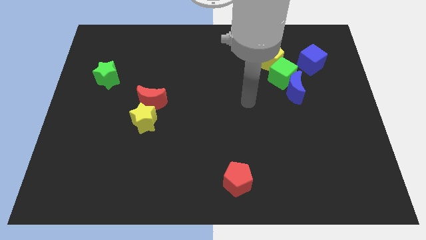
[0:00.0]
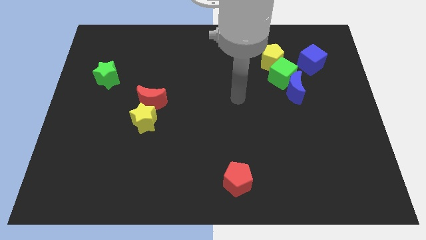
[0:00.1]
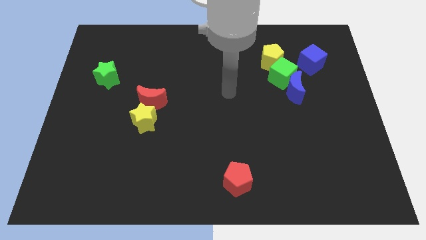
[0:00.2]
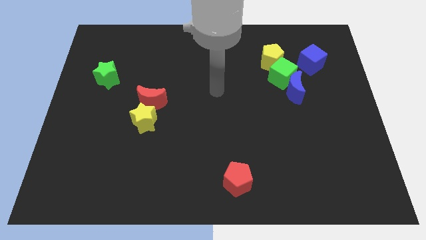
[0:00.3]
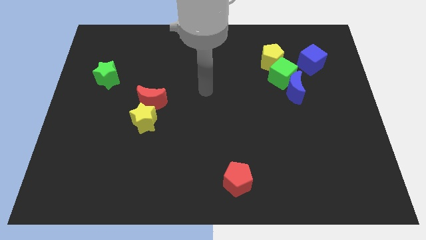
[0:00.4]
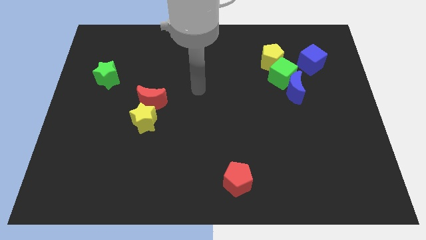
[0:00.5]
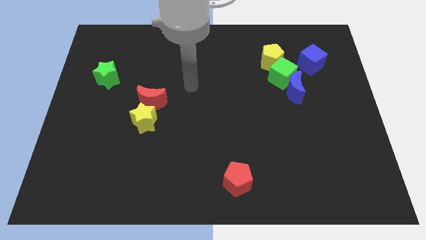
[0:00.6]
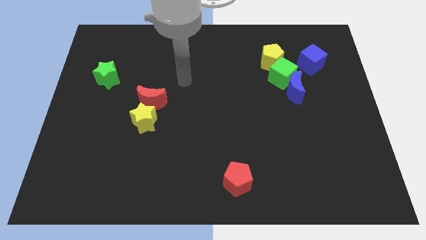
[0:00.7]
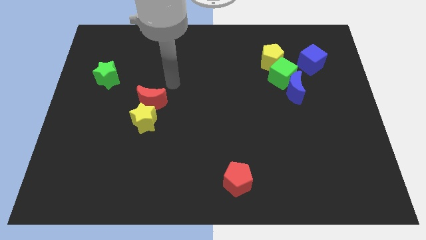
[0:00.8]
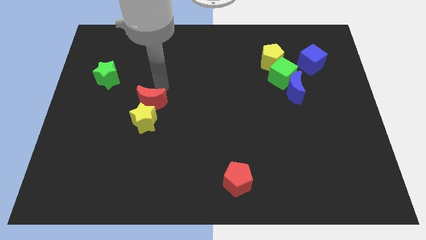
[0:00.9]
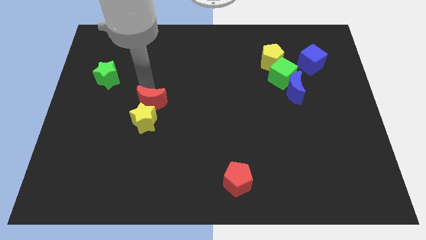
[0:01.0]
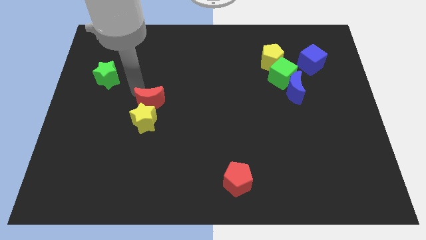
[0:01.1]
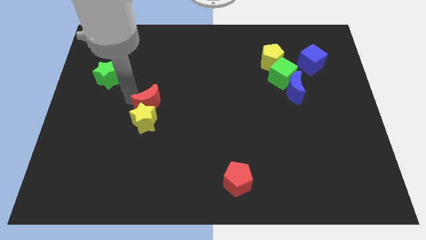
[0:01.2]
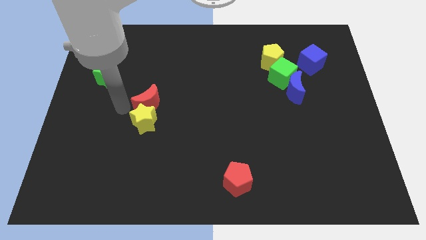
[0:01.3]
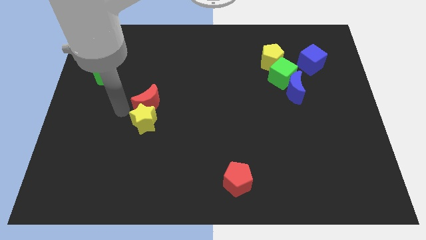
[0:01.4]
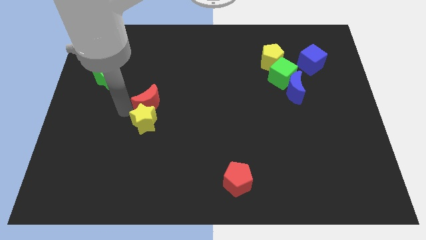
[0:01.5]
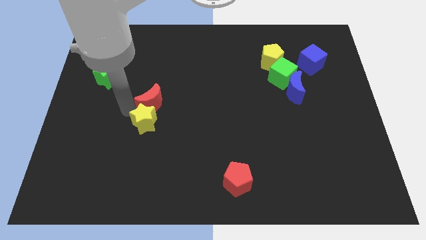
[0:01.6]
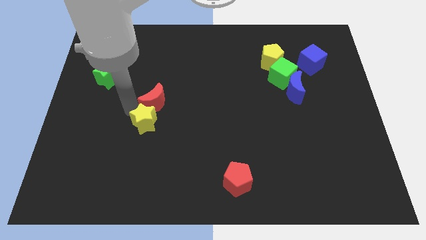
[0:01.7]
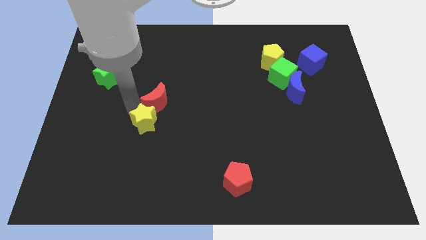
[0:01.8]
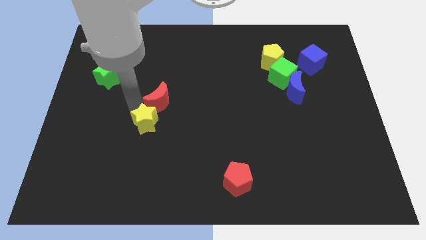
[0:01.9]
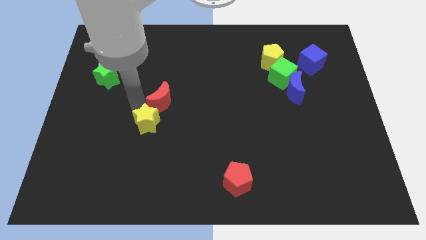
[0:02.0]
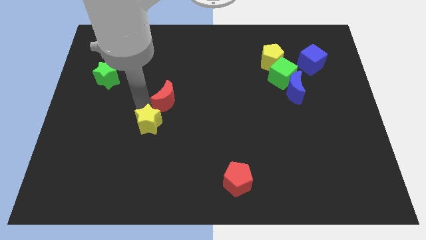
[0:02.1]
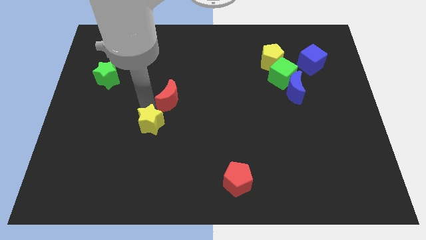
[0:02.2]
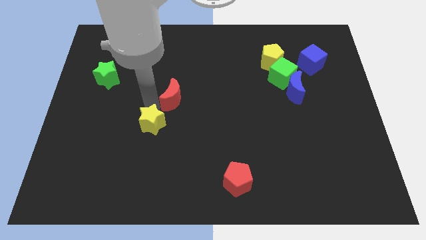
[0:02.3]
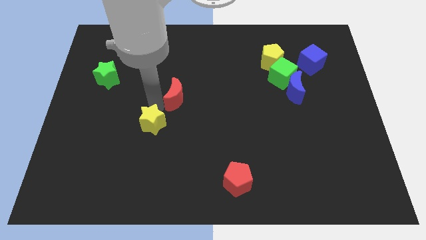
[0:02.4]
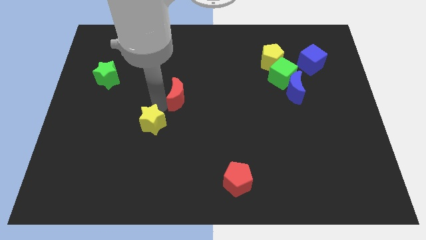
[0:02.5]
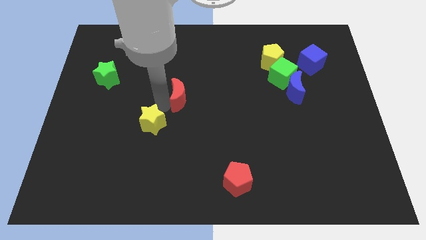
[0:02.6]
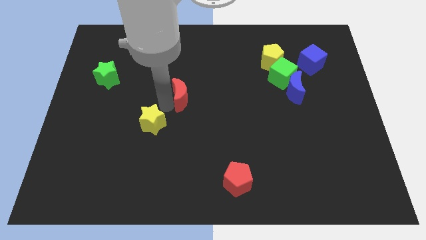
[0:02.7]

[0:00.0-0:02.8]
push the red moon right a bit

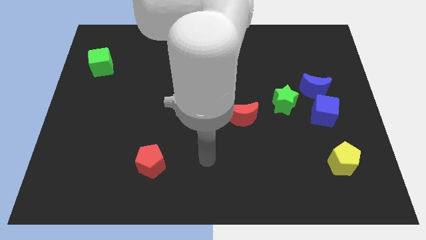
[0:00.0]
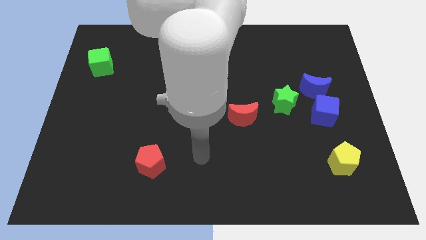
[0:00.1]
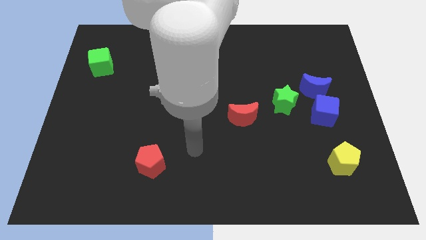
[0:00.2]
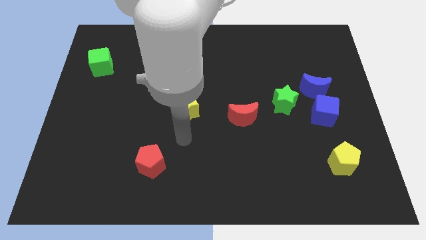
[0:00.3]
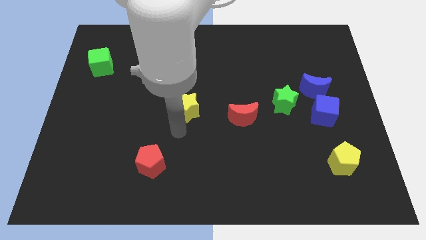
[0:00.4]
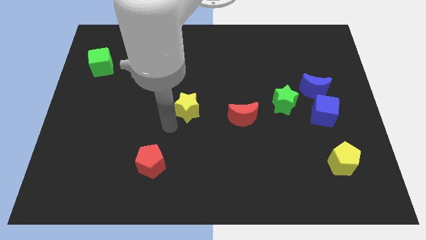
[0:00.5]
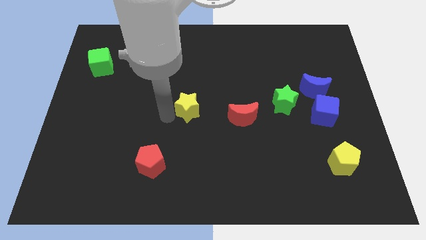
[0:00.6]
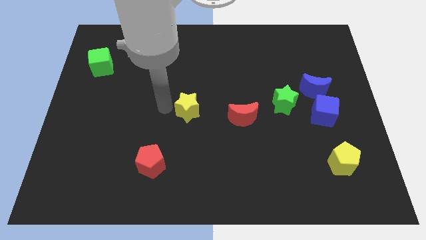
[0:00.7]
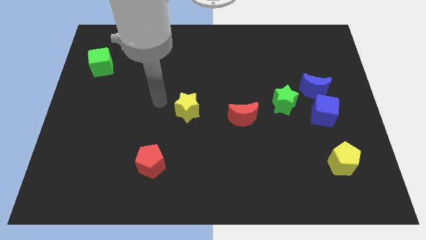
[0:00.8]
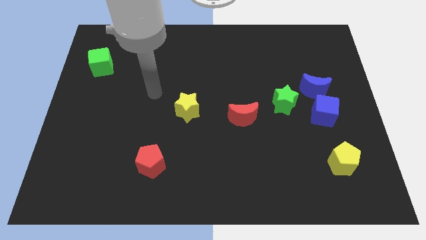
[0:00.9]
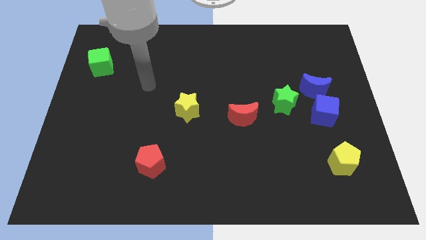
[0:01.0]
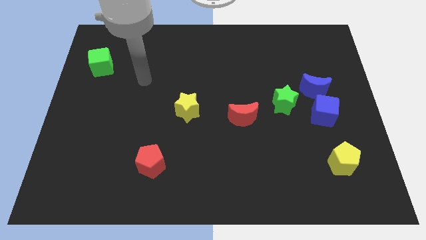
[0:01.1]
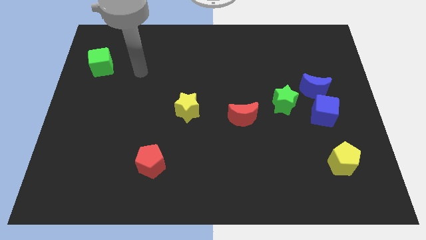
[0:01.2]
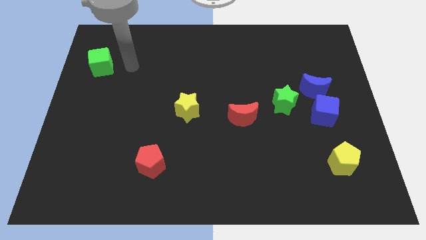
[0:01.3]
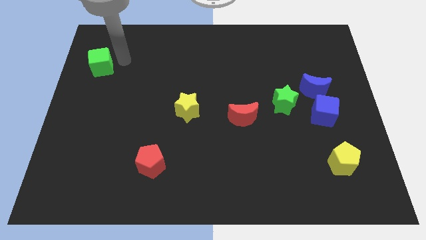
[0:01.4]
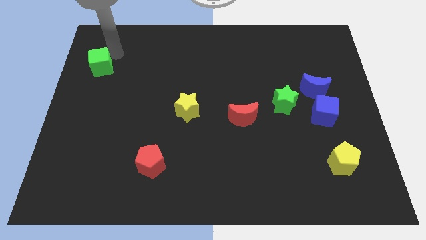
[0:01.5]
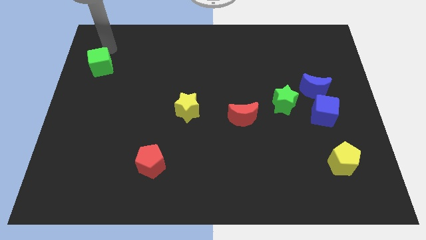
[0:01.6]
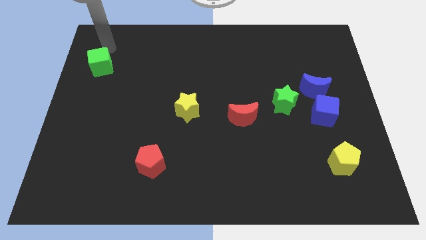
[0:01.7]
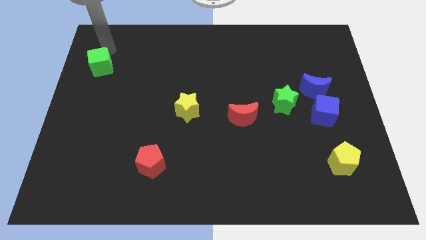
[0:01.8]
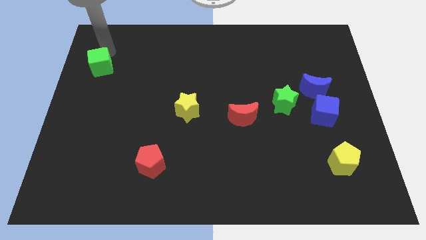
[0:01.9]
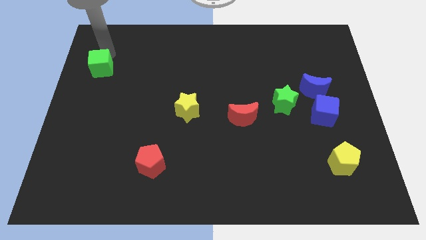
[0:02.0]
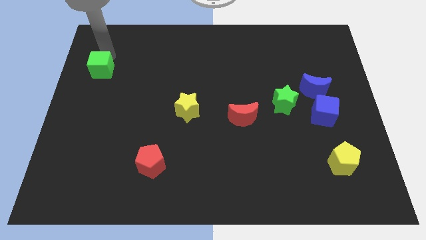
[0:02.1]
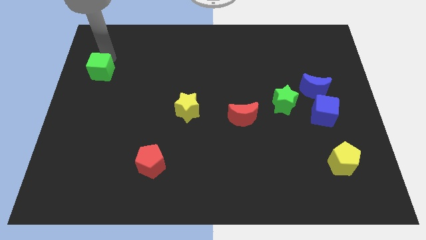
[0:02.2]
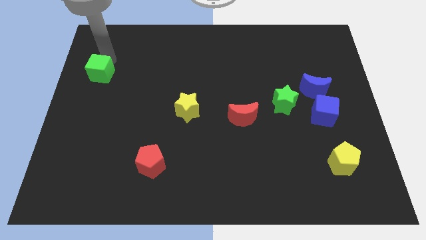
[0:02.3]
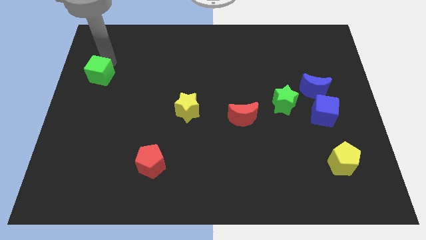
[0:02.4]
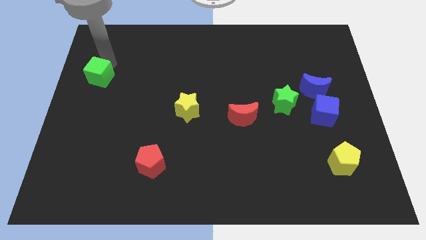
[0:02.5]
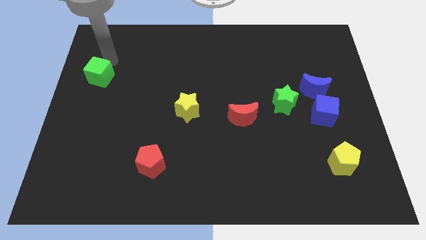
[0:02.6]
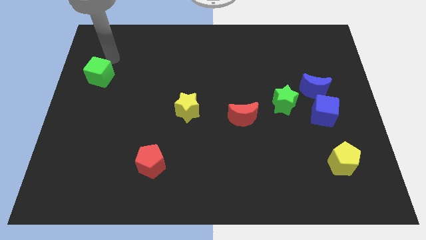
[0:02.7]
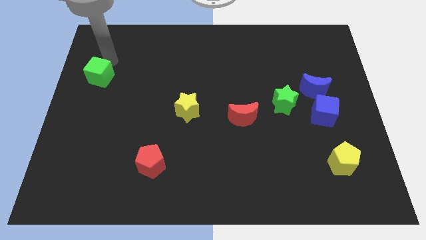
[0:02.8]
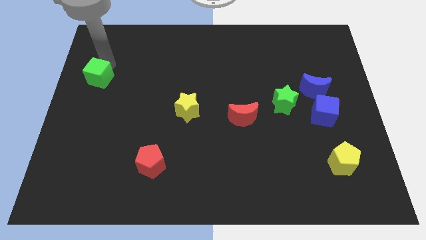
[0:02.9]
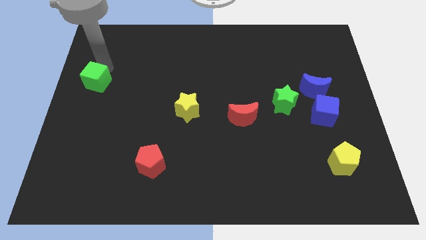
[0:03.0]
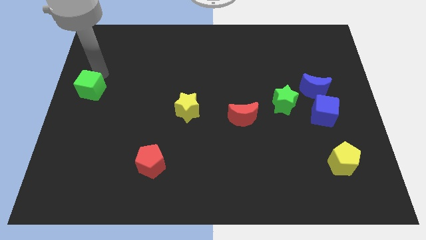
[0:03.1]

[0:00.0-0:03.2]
slide the green cube a little downwards

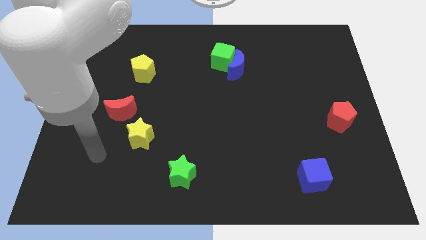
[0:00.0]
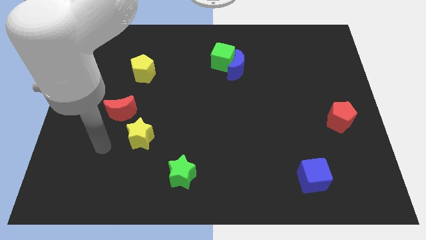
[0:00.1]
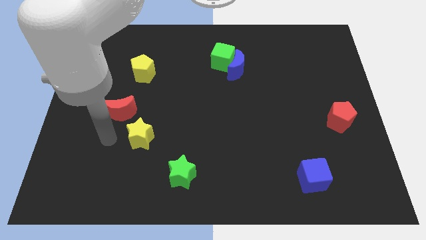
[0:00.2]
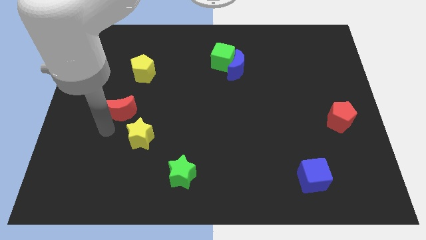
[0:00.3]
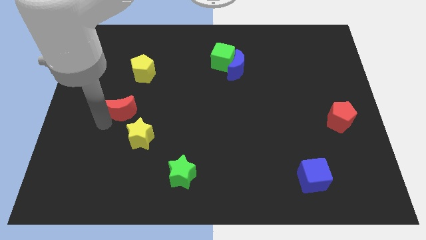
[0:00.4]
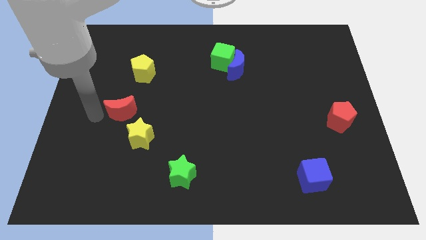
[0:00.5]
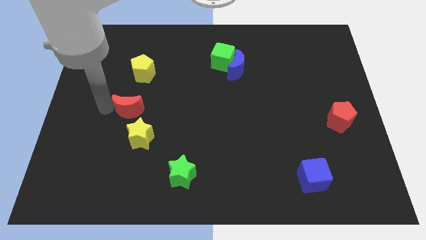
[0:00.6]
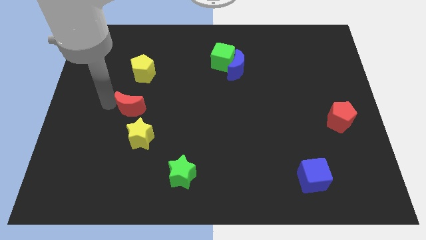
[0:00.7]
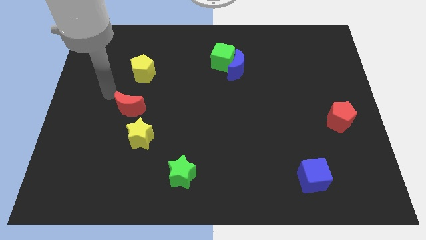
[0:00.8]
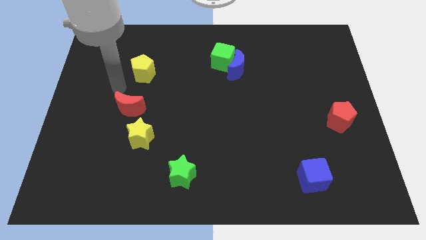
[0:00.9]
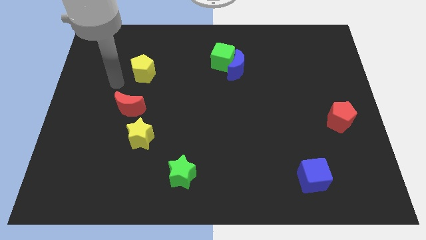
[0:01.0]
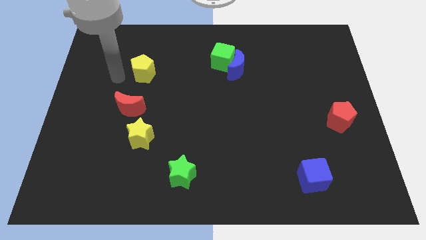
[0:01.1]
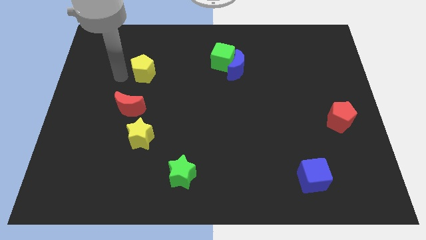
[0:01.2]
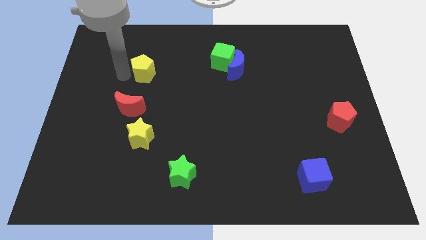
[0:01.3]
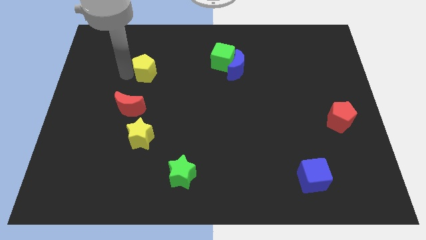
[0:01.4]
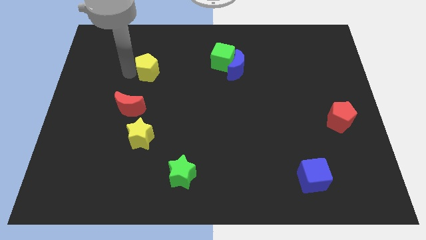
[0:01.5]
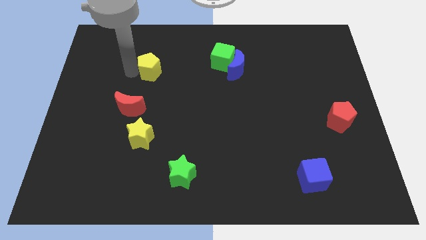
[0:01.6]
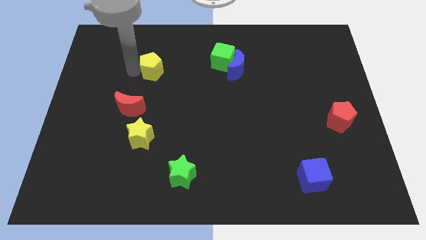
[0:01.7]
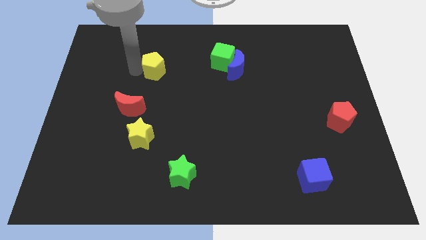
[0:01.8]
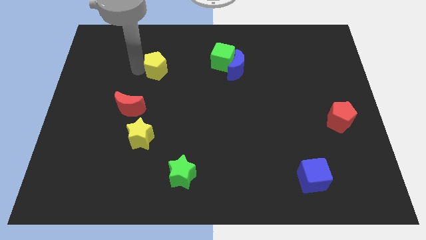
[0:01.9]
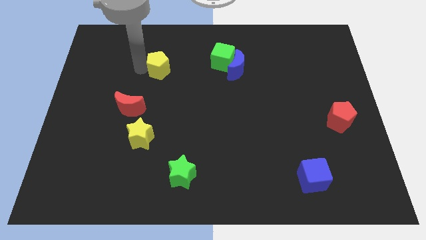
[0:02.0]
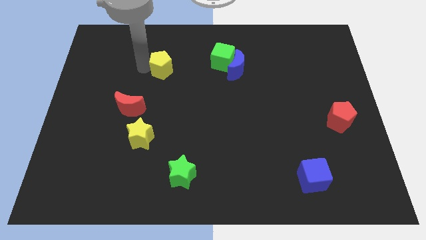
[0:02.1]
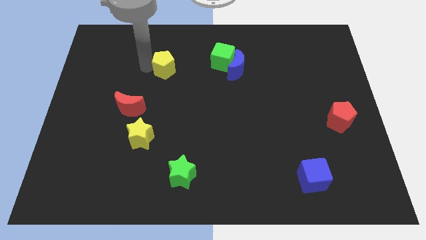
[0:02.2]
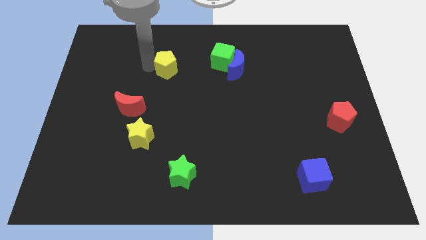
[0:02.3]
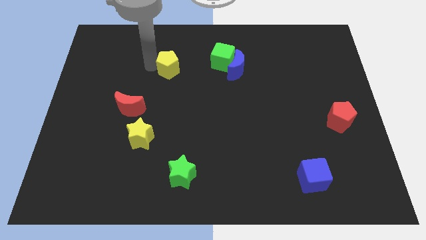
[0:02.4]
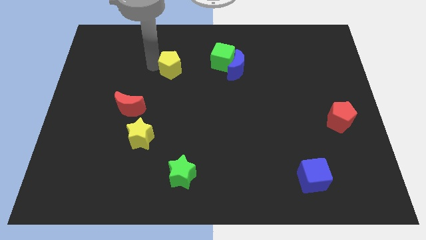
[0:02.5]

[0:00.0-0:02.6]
slide the yellow pentagon somewhat to the right
